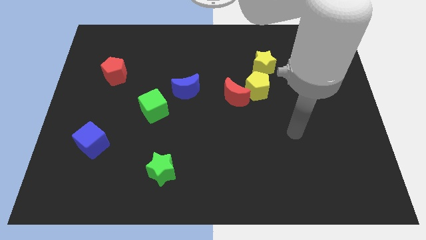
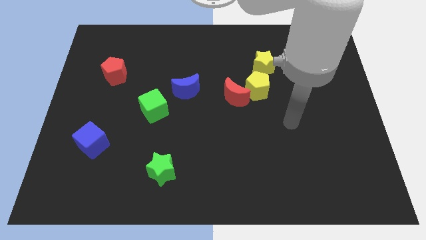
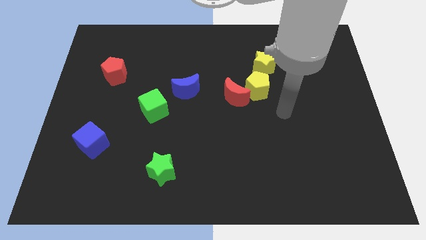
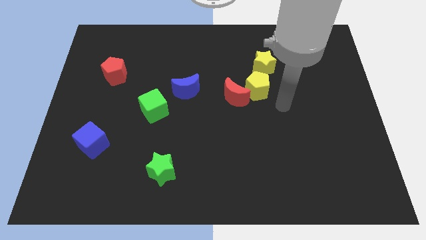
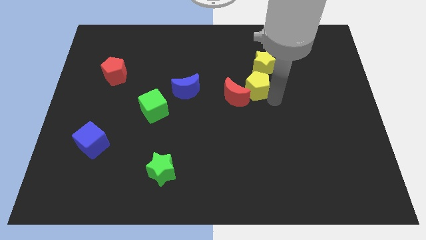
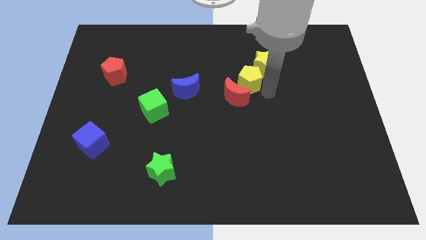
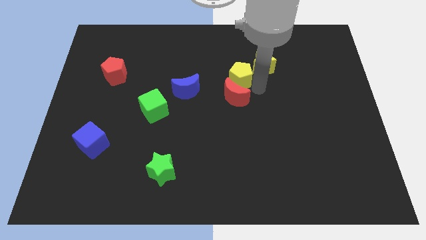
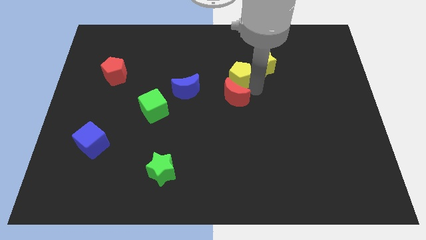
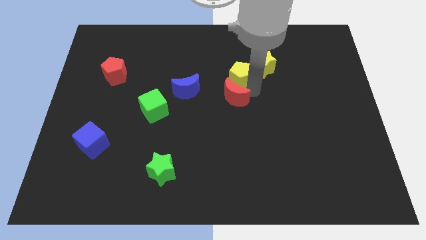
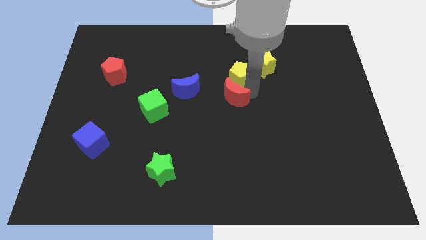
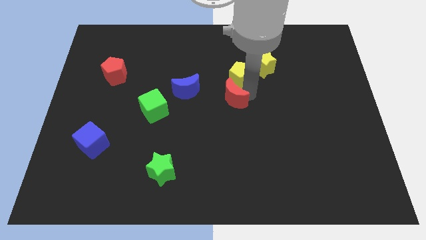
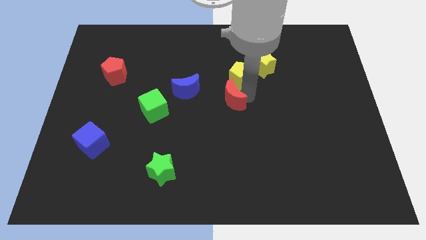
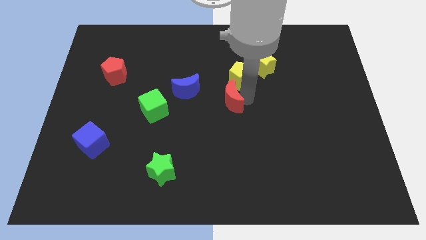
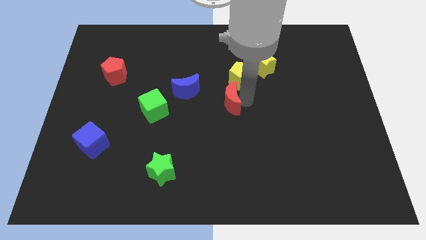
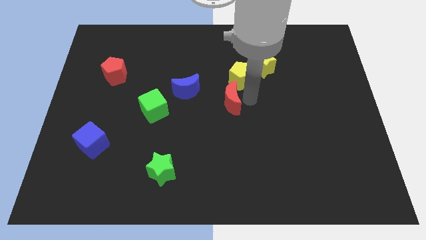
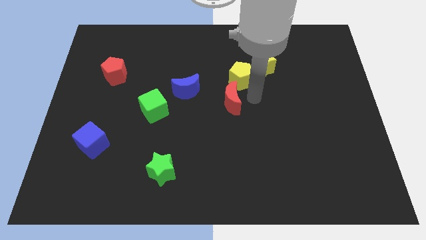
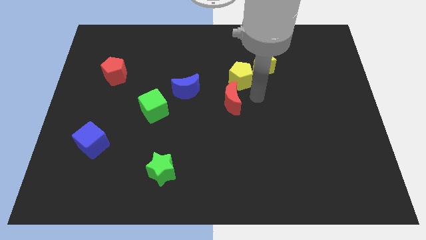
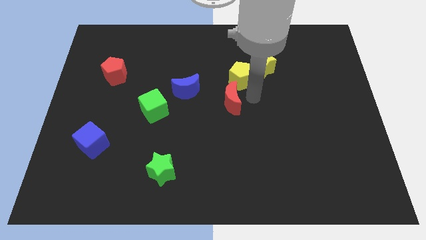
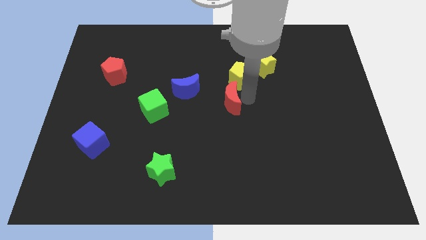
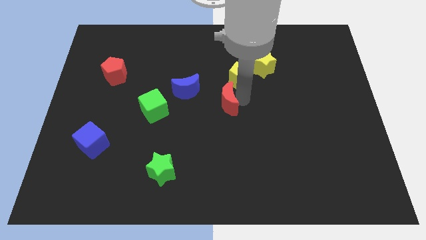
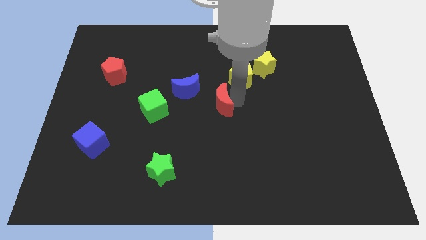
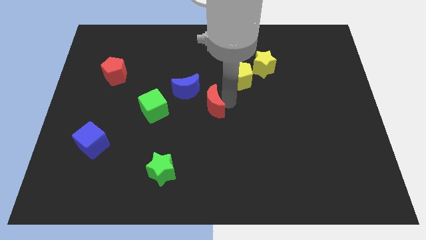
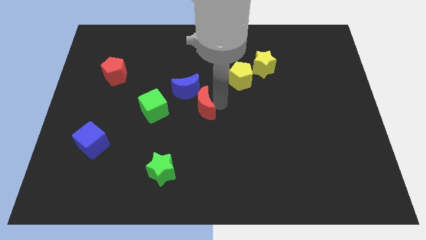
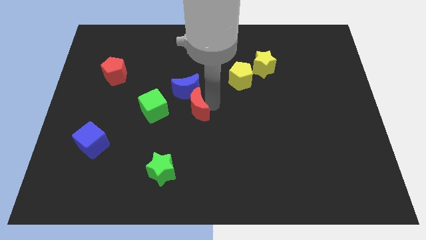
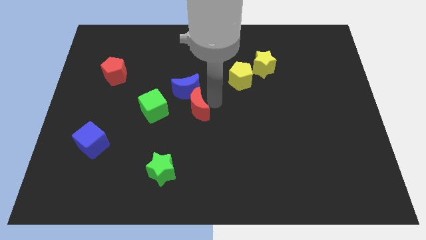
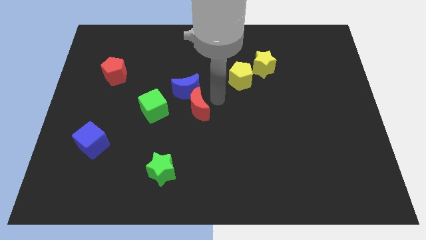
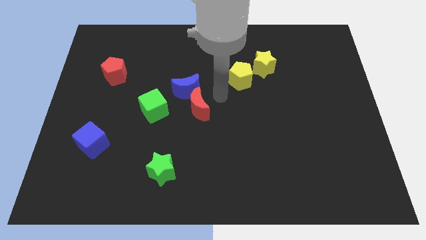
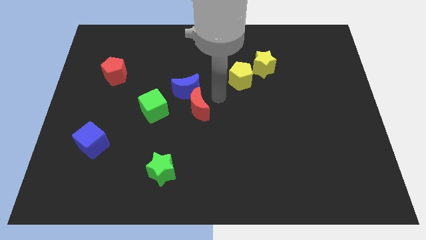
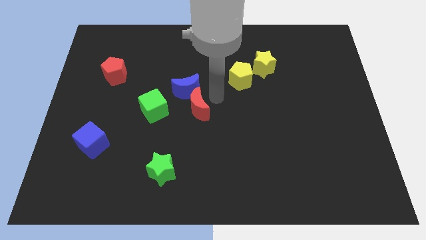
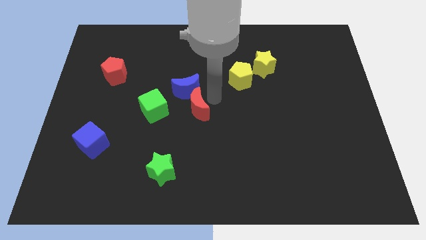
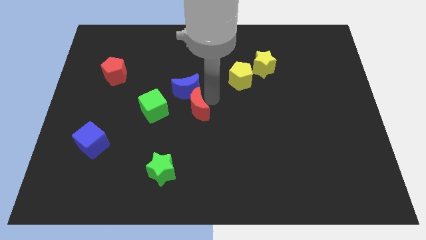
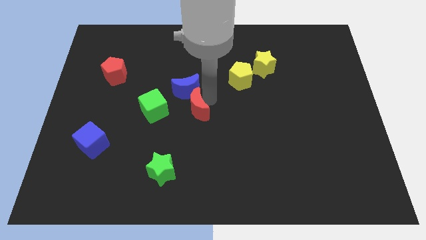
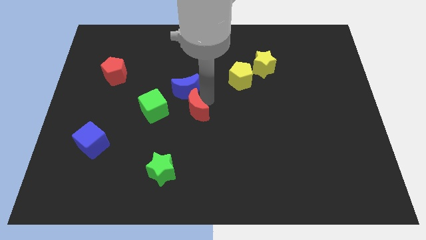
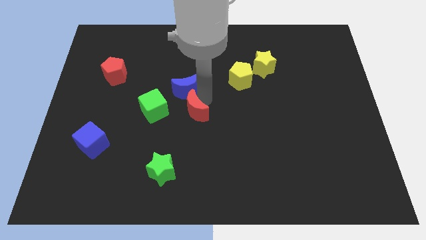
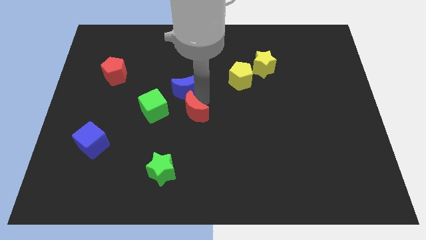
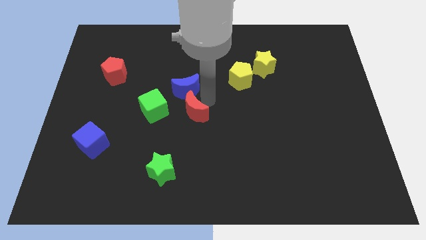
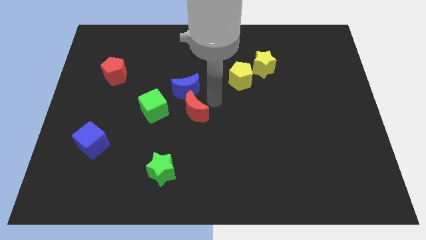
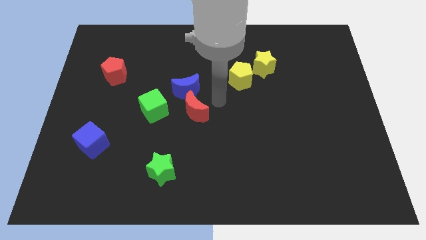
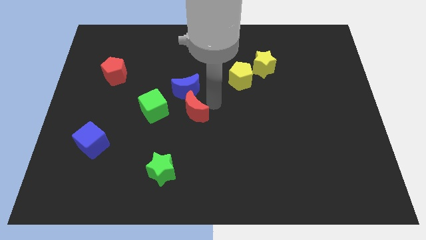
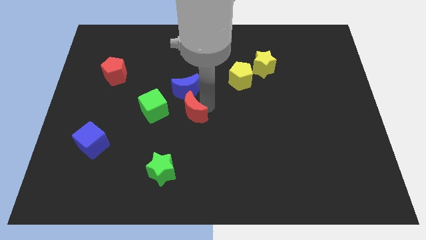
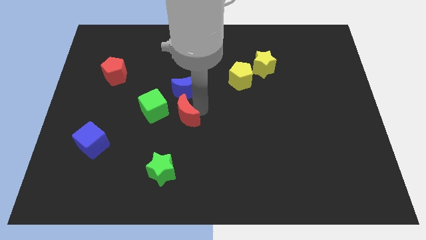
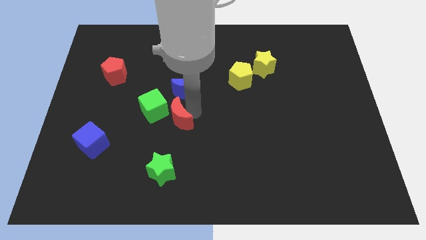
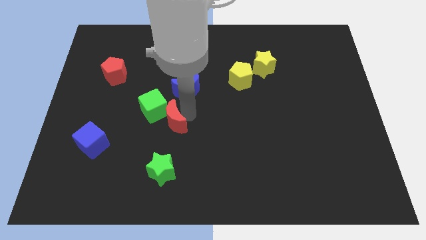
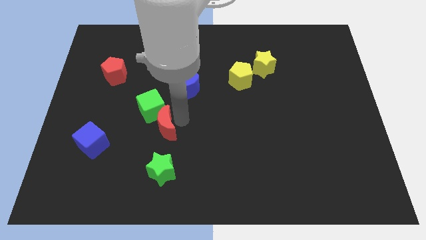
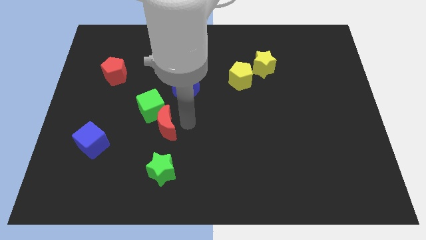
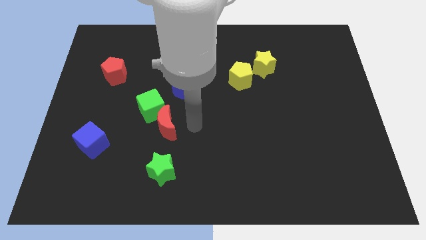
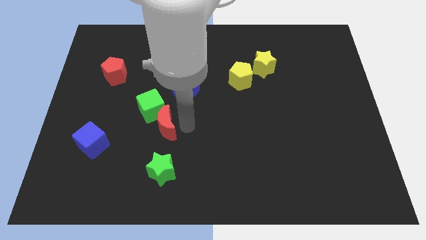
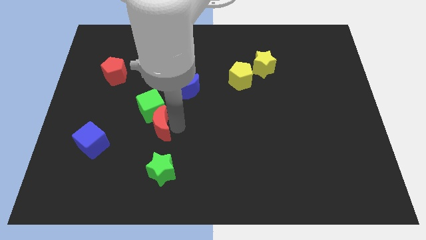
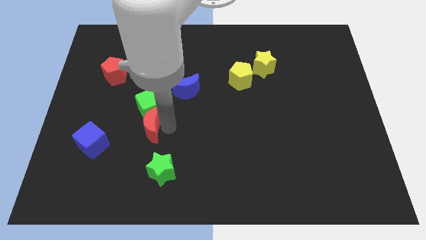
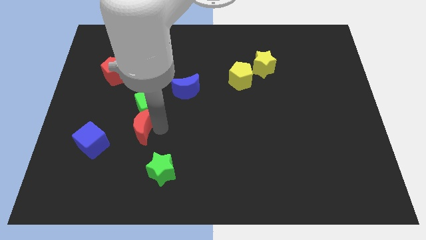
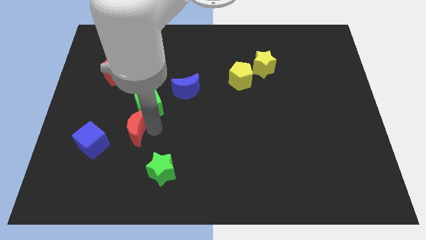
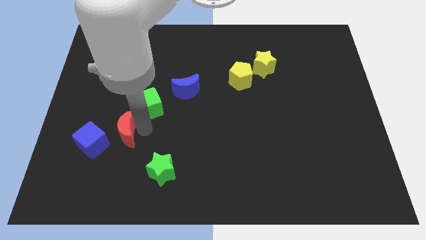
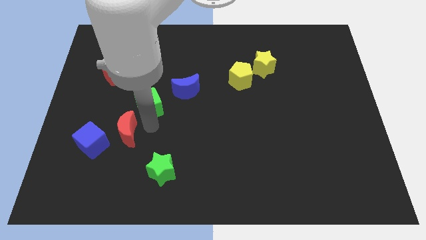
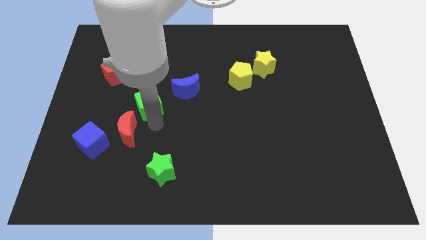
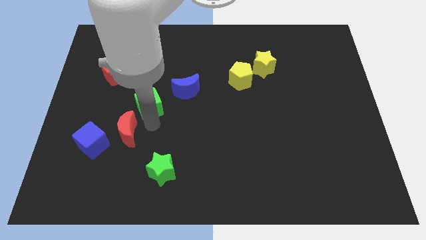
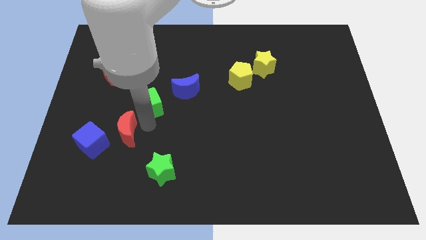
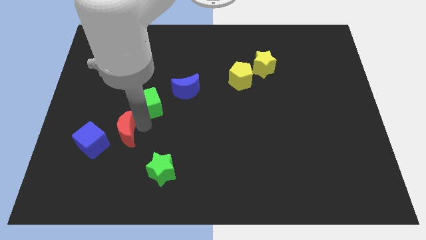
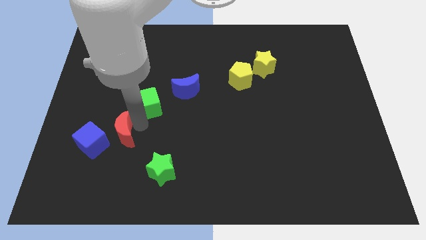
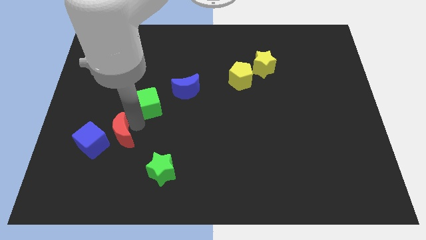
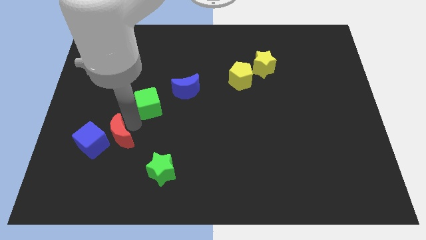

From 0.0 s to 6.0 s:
put the red moon to the blue cube

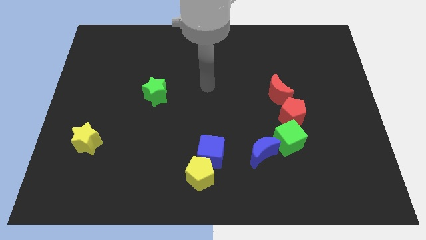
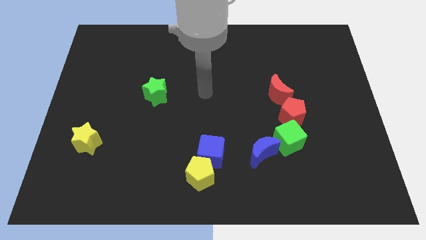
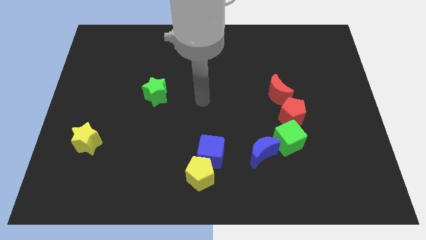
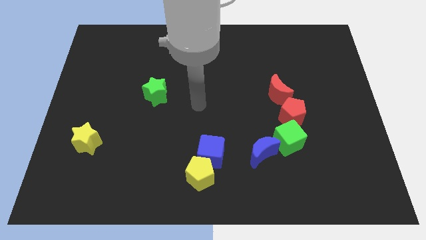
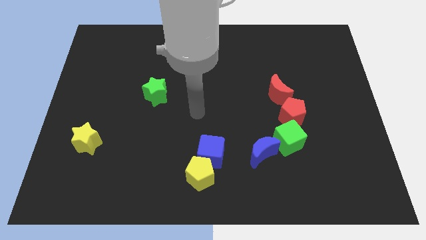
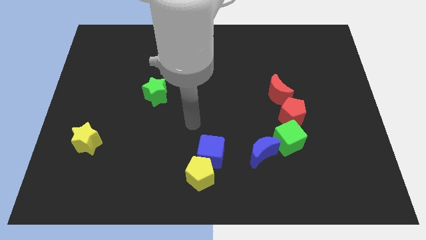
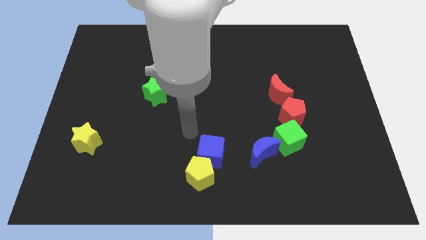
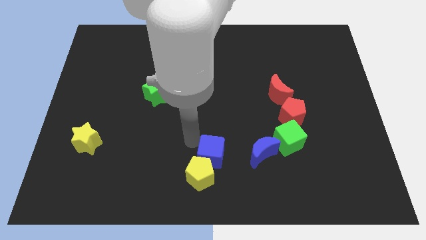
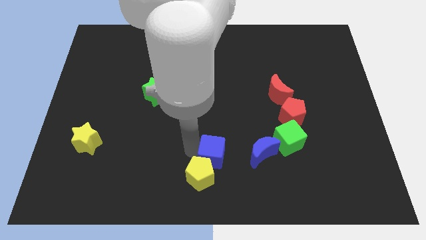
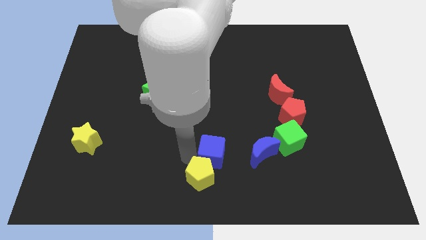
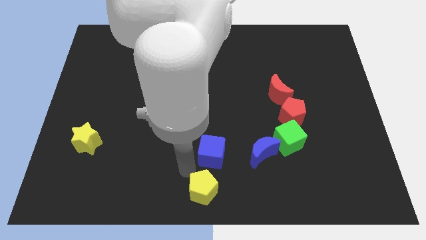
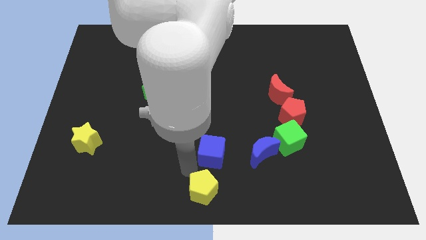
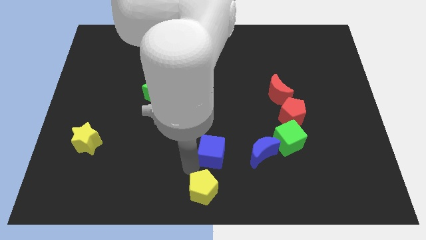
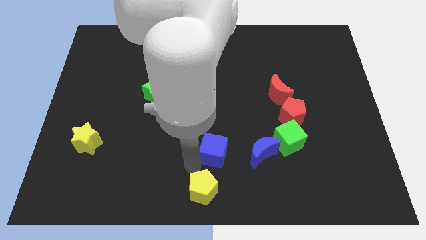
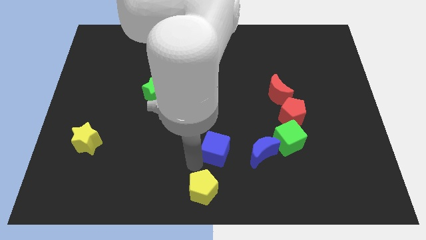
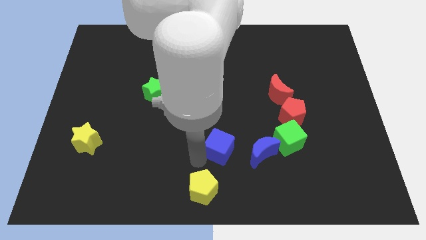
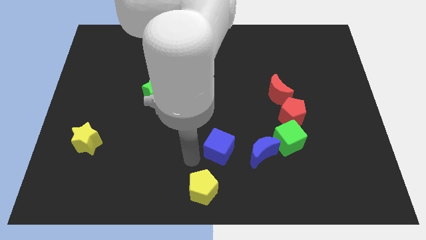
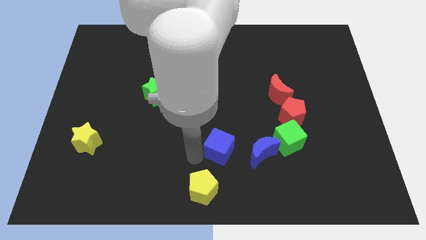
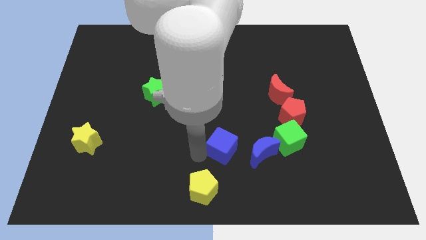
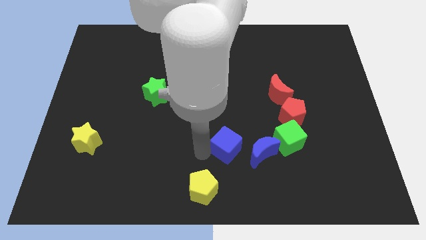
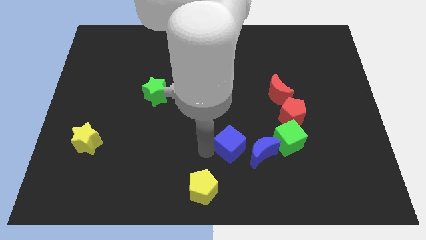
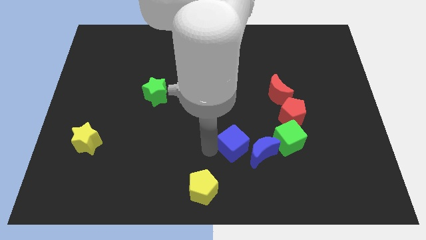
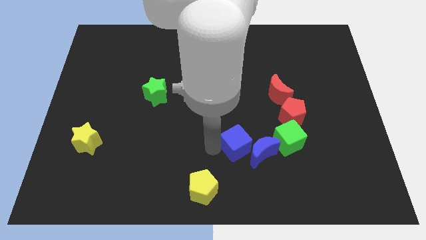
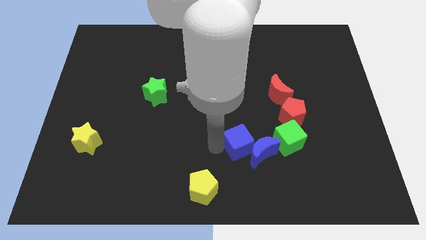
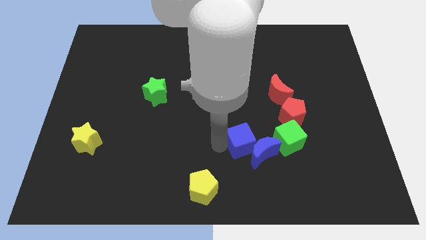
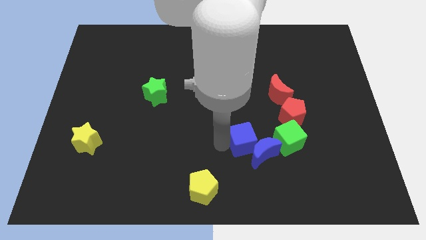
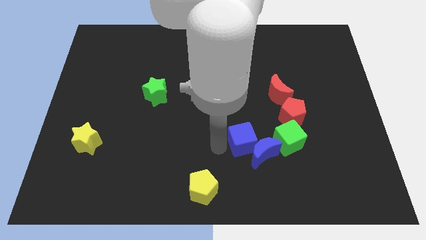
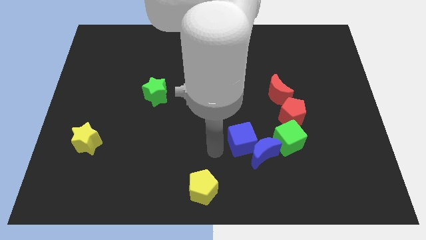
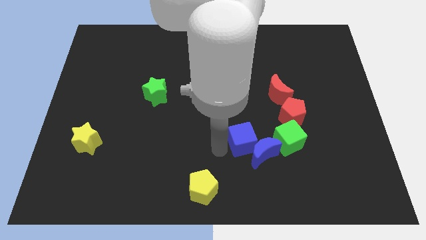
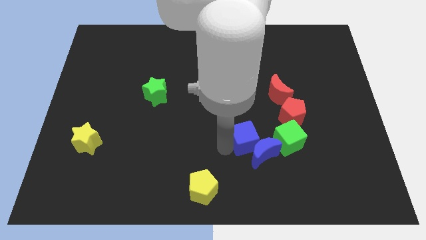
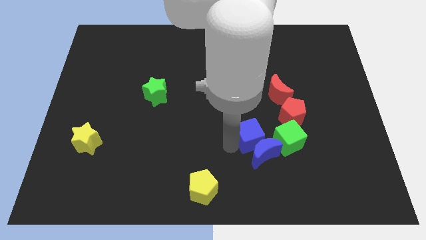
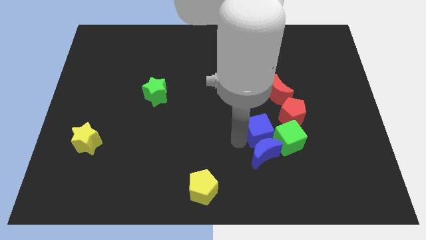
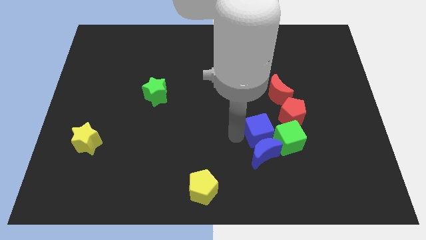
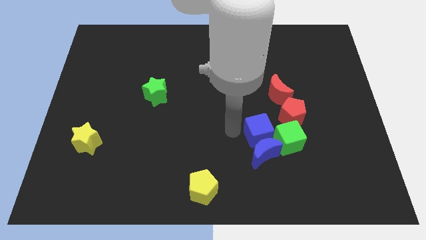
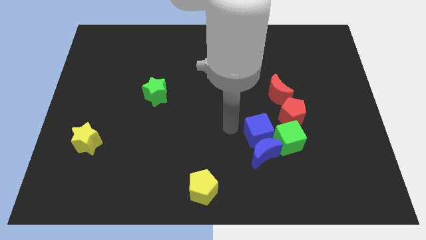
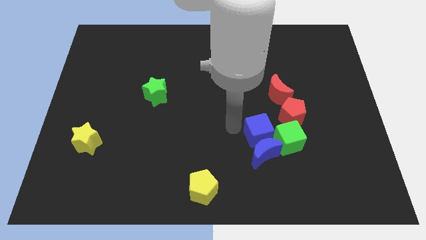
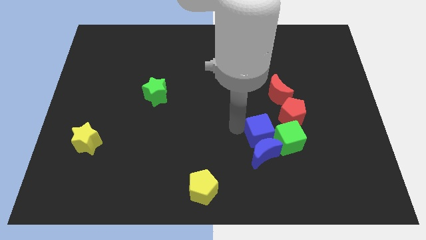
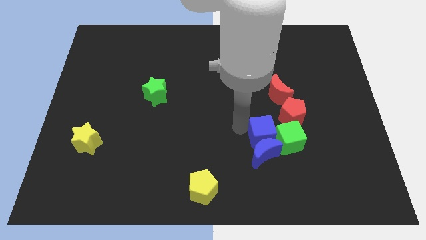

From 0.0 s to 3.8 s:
put the blue cube towards the green cube
